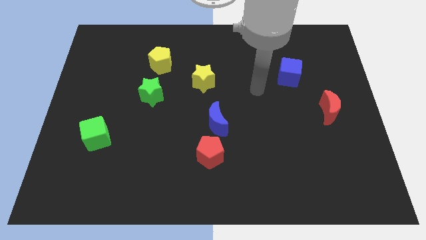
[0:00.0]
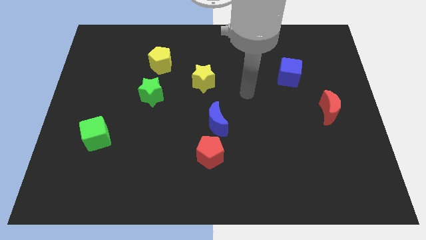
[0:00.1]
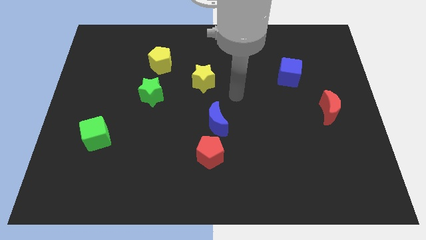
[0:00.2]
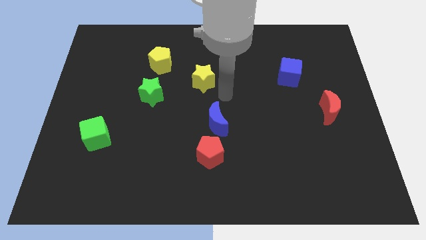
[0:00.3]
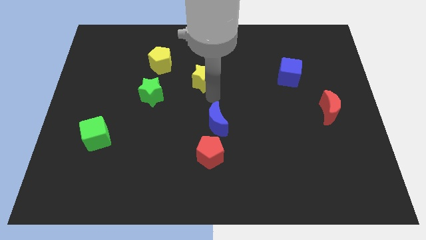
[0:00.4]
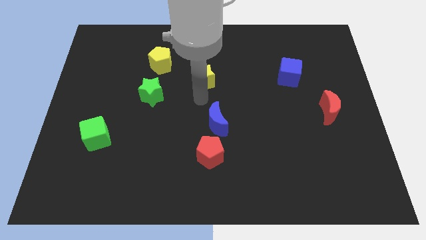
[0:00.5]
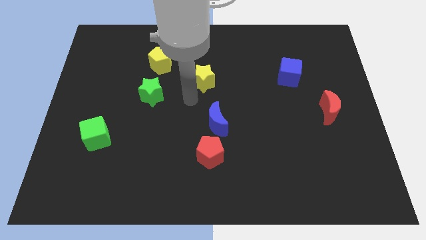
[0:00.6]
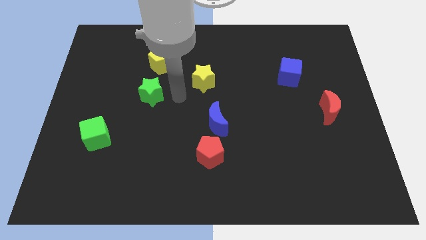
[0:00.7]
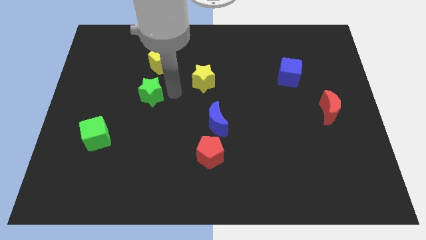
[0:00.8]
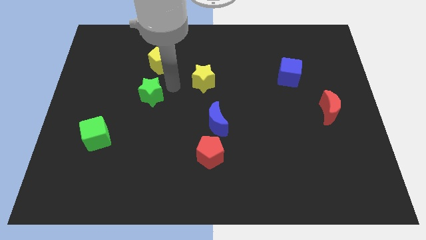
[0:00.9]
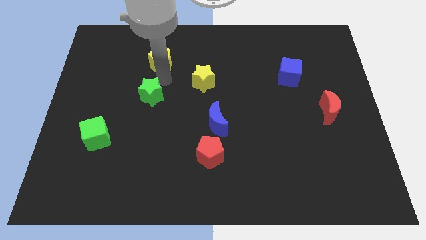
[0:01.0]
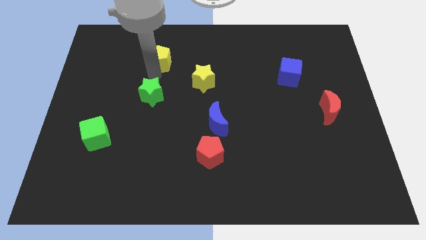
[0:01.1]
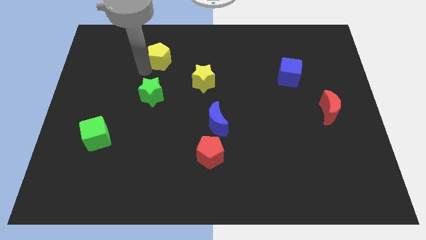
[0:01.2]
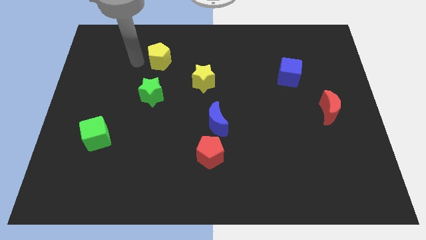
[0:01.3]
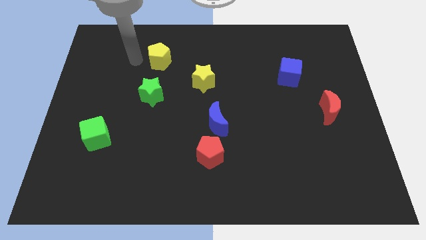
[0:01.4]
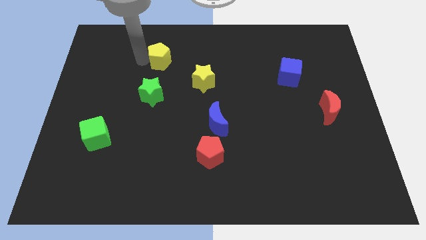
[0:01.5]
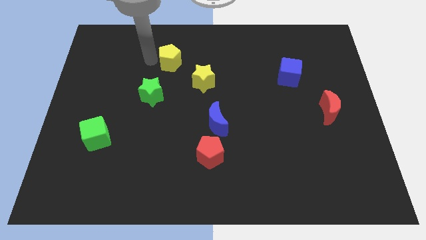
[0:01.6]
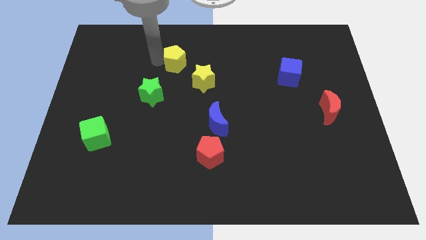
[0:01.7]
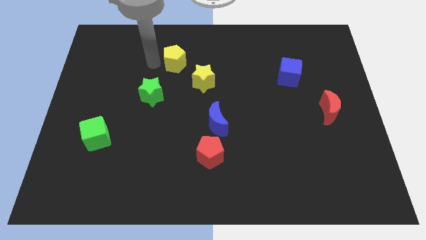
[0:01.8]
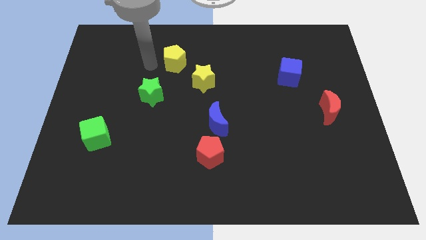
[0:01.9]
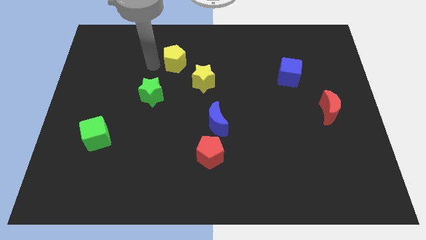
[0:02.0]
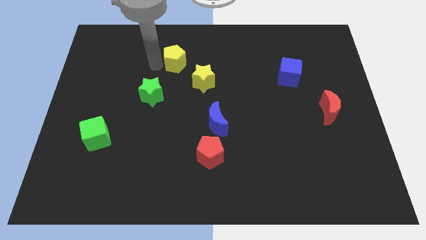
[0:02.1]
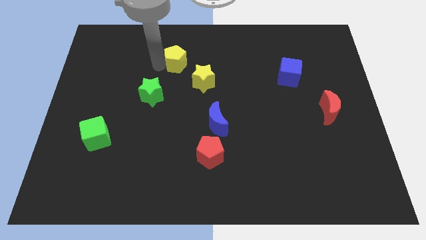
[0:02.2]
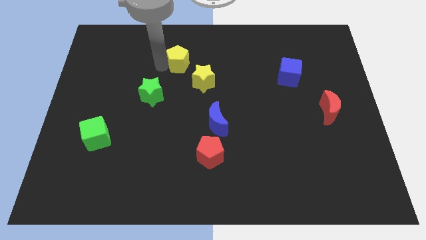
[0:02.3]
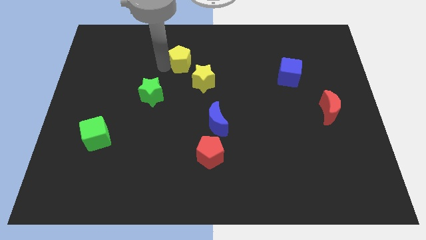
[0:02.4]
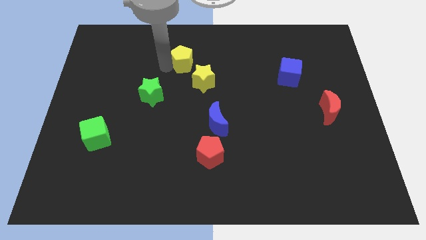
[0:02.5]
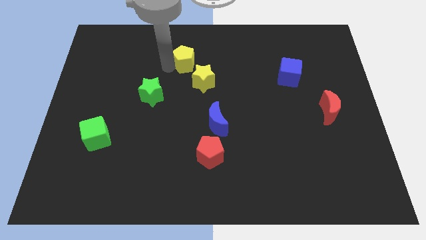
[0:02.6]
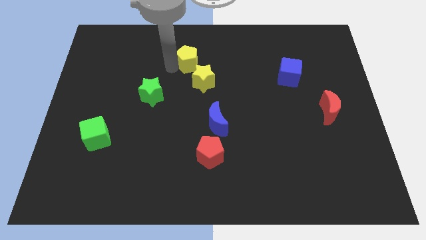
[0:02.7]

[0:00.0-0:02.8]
slightly push the yellow pentagon right

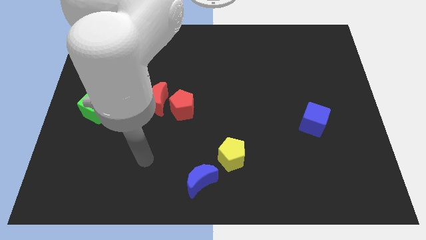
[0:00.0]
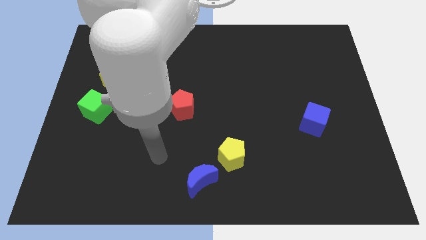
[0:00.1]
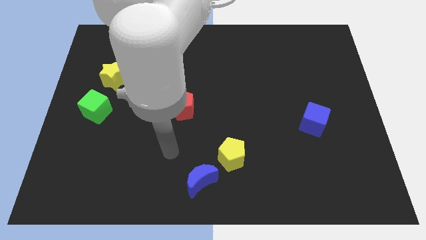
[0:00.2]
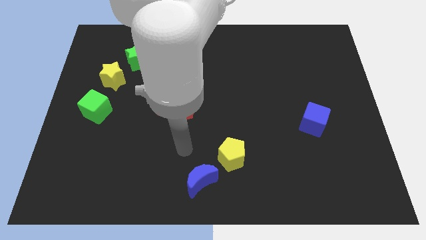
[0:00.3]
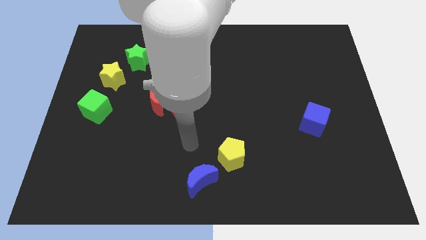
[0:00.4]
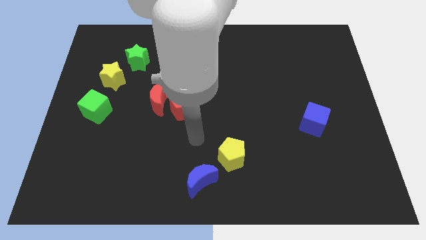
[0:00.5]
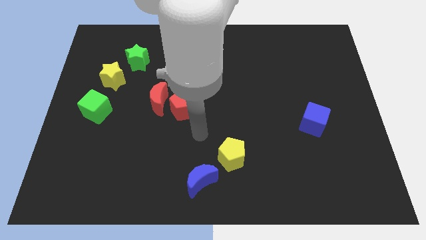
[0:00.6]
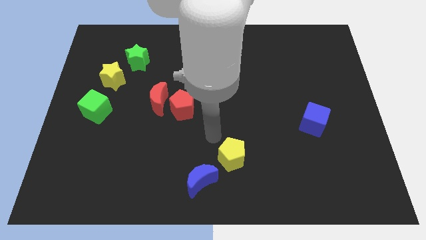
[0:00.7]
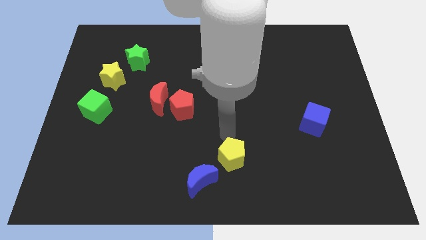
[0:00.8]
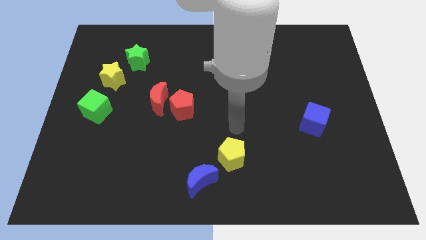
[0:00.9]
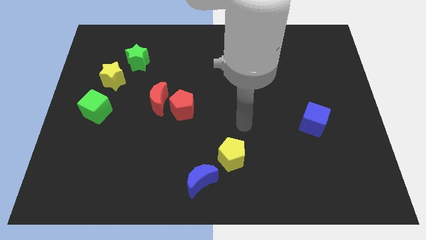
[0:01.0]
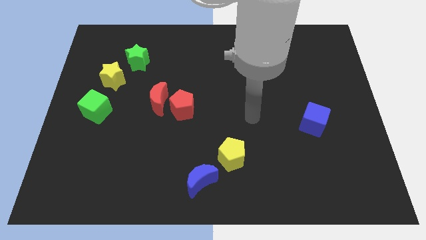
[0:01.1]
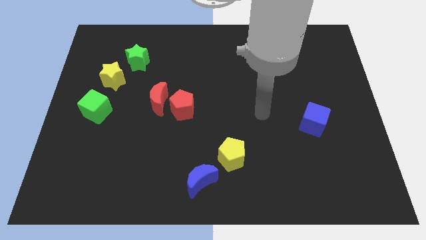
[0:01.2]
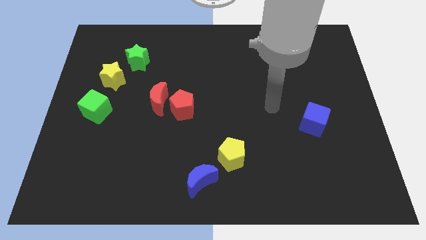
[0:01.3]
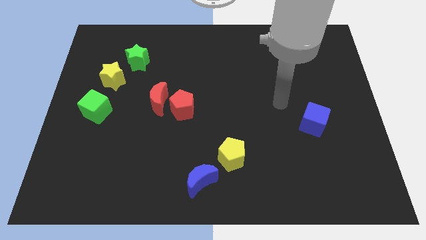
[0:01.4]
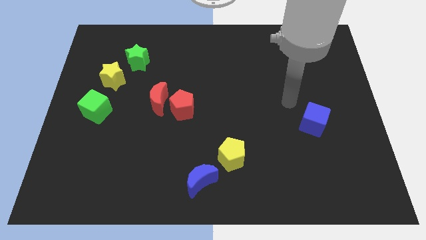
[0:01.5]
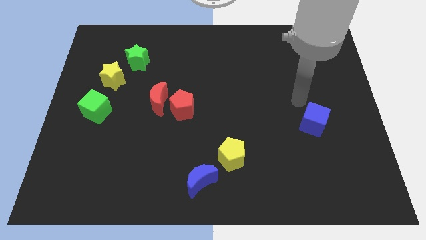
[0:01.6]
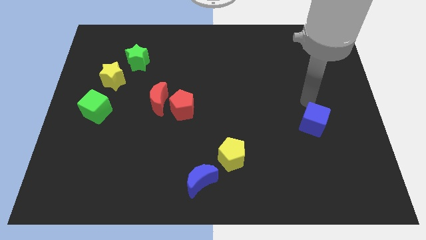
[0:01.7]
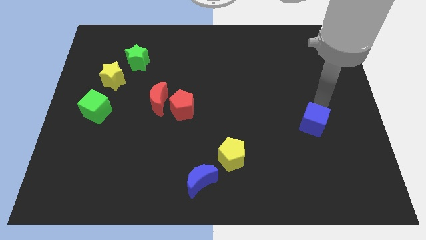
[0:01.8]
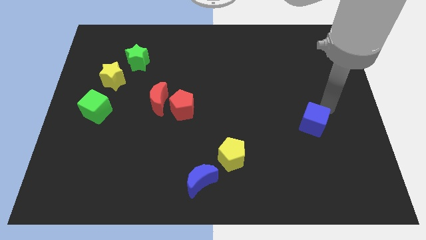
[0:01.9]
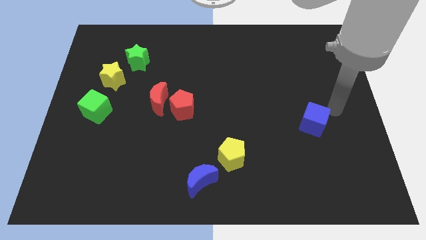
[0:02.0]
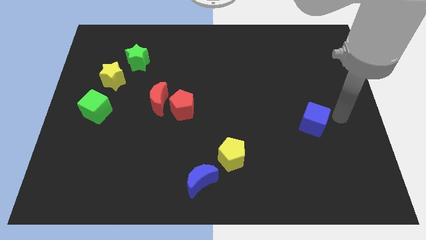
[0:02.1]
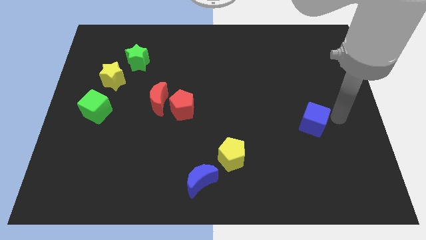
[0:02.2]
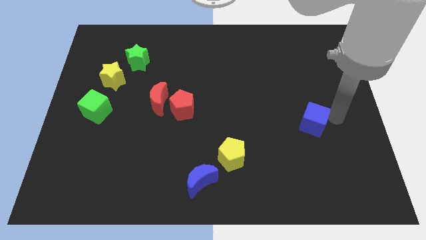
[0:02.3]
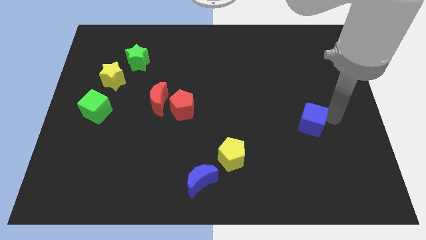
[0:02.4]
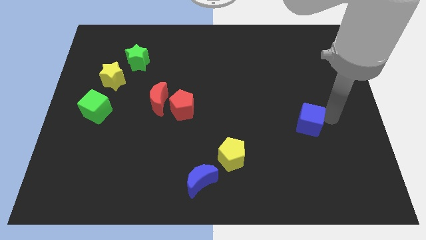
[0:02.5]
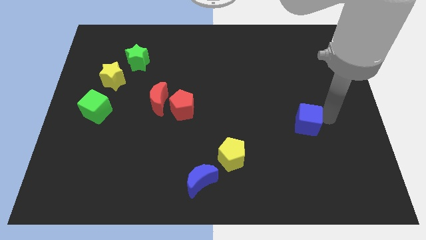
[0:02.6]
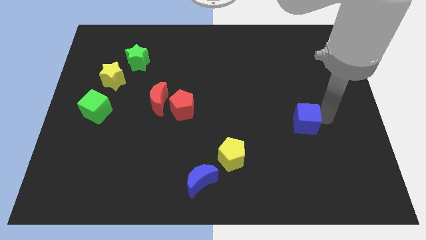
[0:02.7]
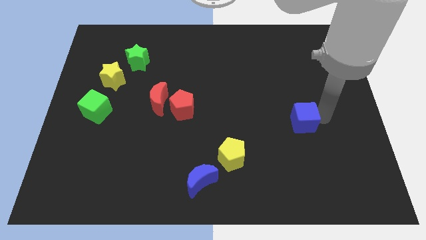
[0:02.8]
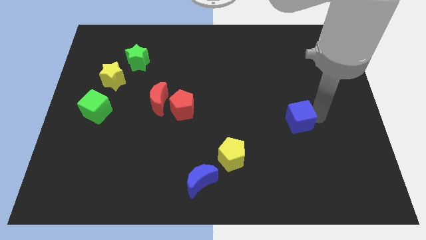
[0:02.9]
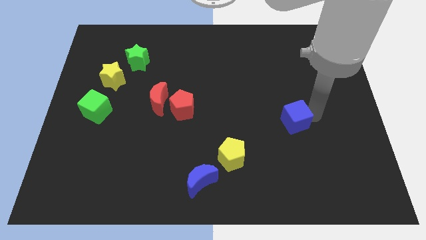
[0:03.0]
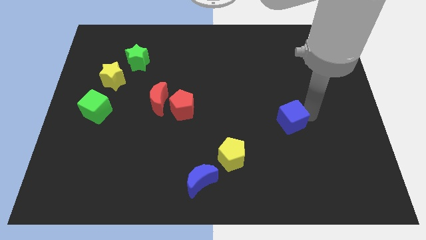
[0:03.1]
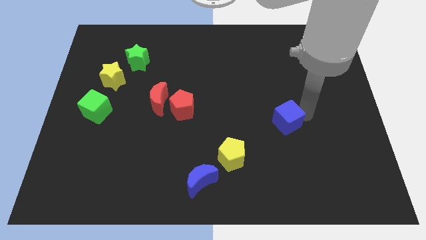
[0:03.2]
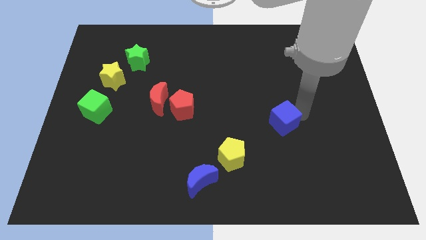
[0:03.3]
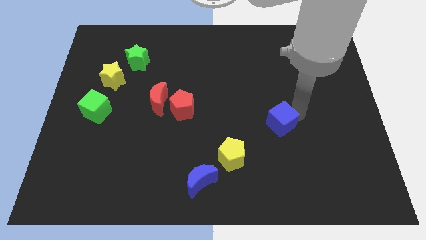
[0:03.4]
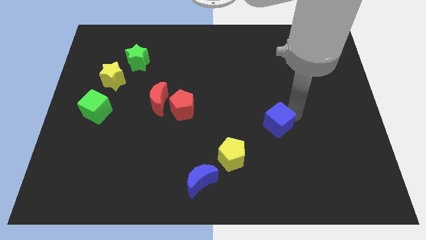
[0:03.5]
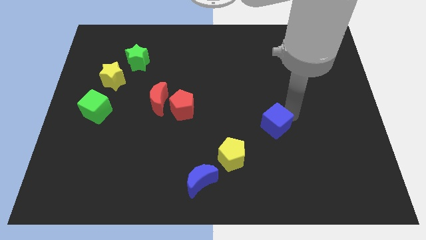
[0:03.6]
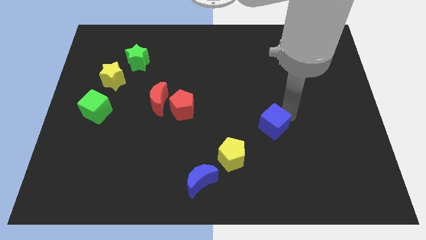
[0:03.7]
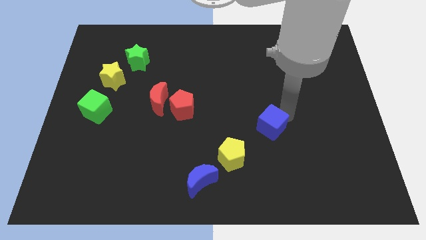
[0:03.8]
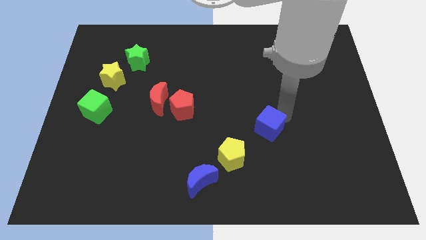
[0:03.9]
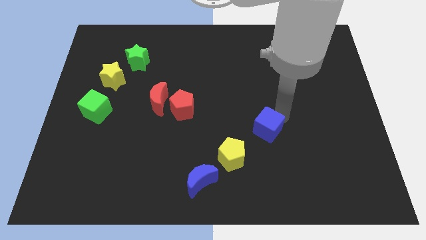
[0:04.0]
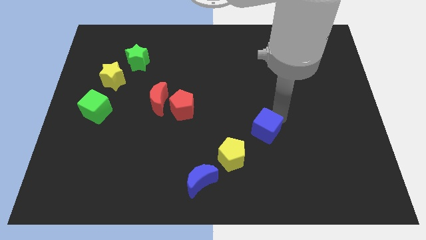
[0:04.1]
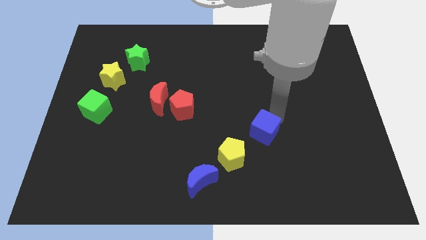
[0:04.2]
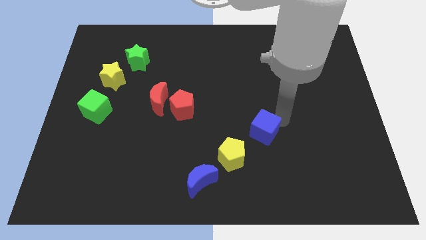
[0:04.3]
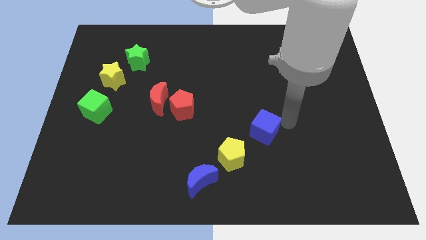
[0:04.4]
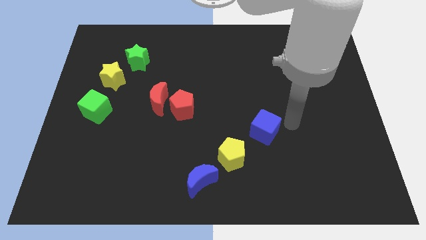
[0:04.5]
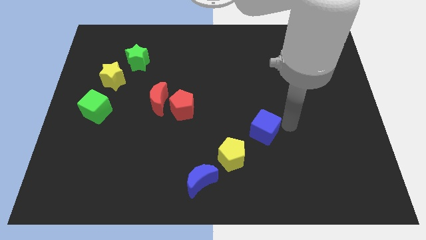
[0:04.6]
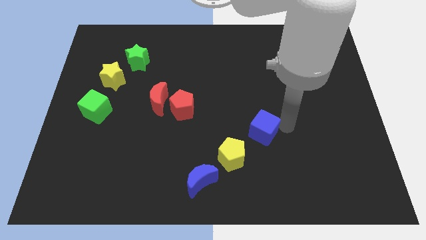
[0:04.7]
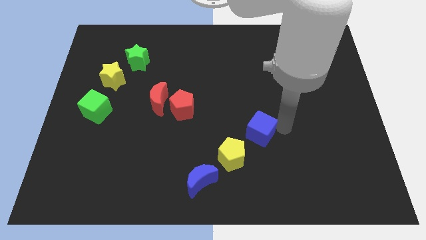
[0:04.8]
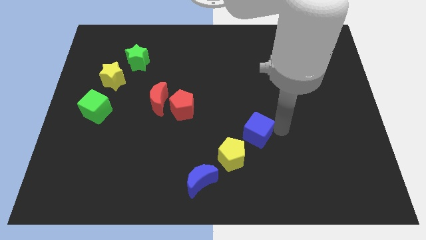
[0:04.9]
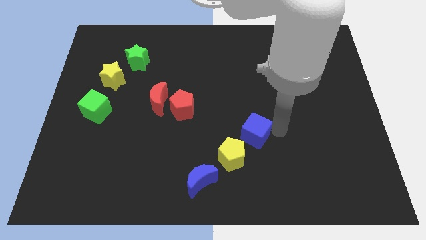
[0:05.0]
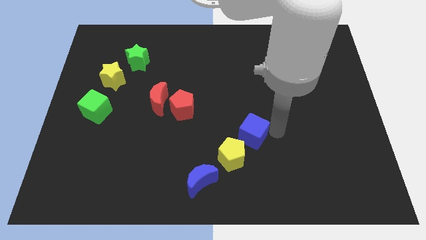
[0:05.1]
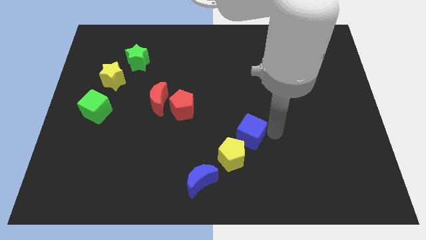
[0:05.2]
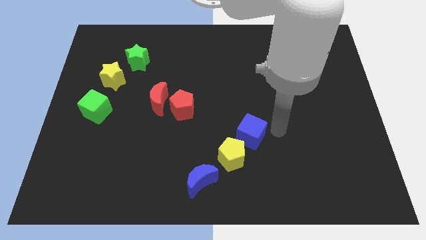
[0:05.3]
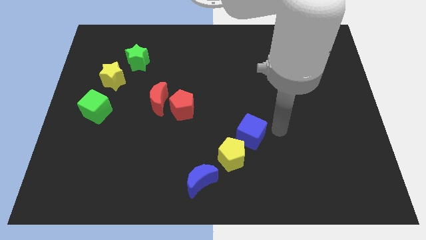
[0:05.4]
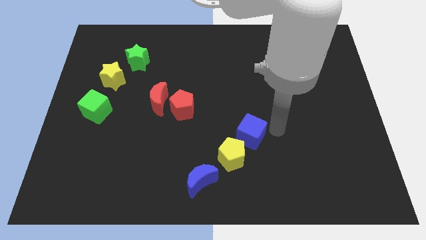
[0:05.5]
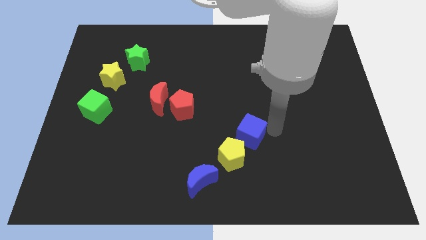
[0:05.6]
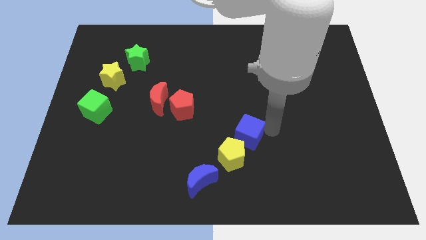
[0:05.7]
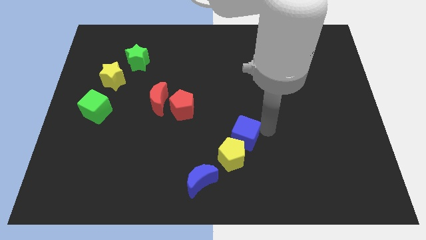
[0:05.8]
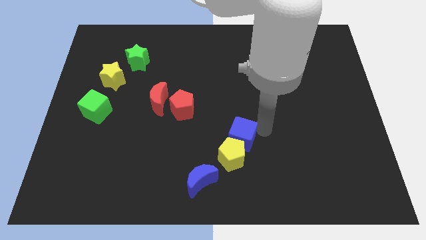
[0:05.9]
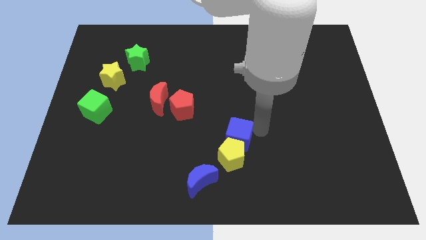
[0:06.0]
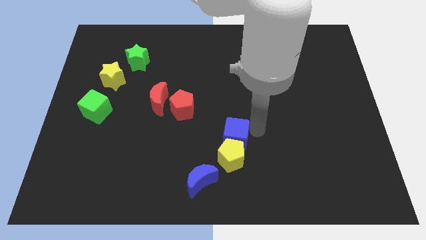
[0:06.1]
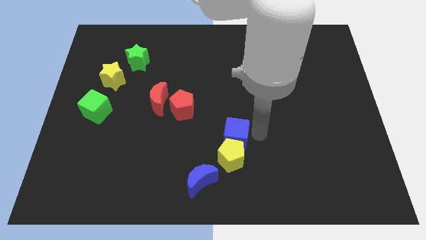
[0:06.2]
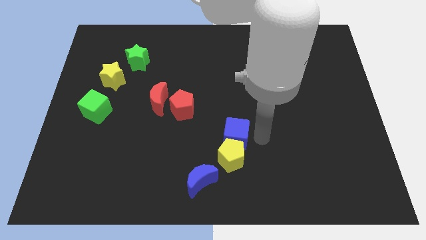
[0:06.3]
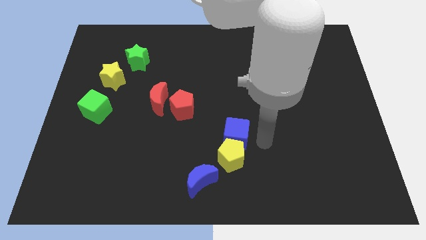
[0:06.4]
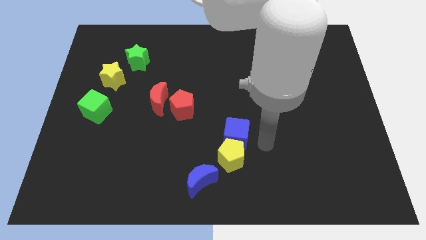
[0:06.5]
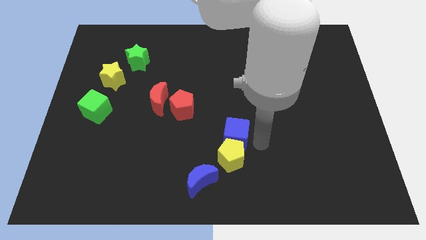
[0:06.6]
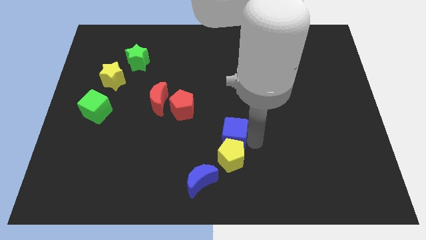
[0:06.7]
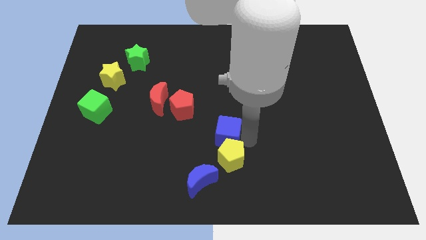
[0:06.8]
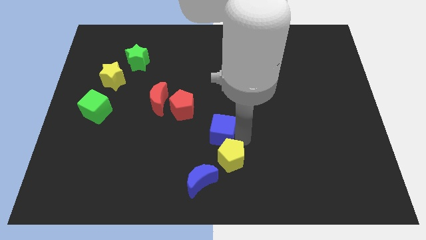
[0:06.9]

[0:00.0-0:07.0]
slide the blue cube left
